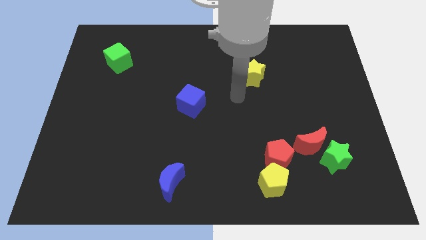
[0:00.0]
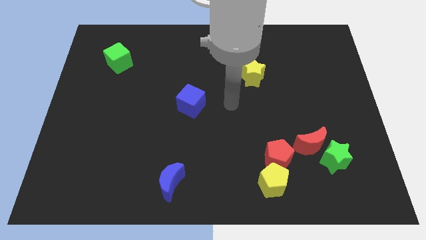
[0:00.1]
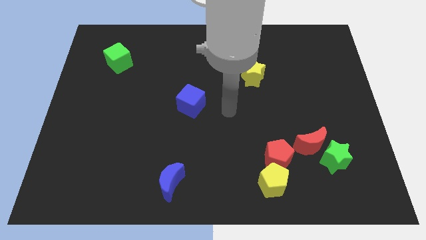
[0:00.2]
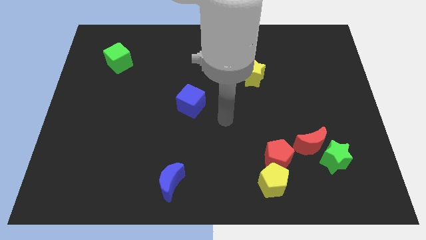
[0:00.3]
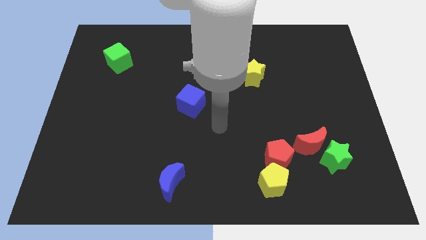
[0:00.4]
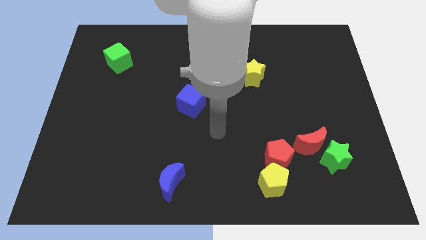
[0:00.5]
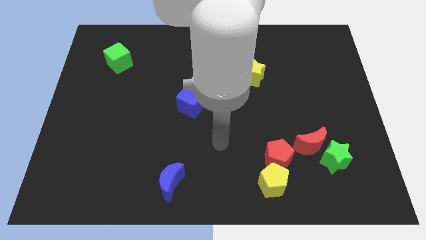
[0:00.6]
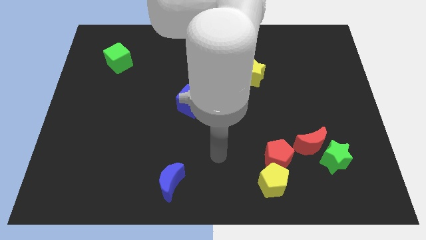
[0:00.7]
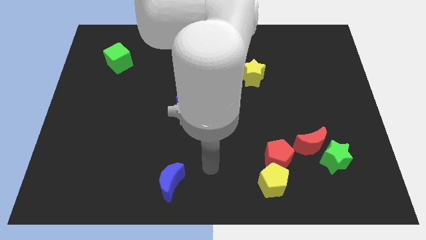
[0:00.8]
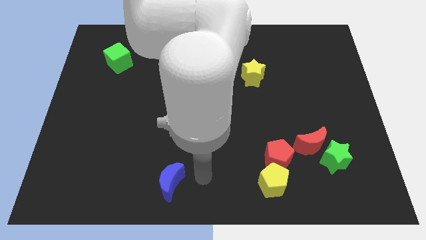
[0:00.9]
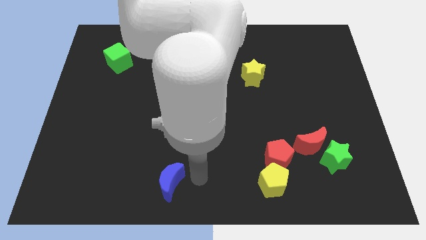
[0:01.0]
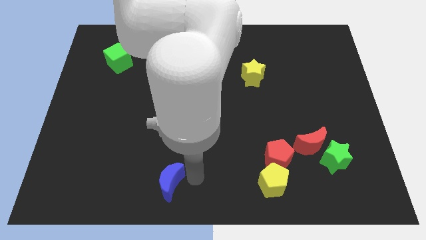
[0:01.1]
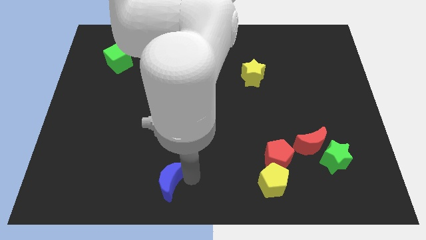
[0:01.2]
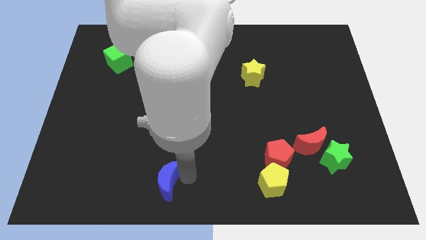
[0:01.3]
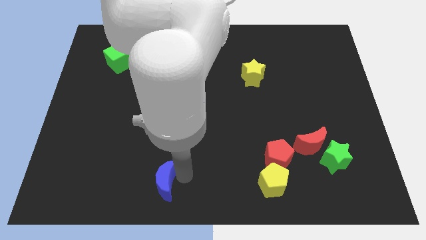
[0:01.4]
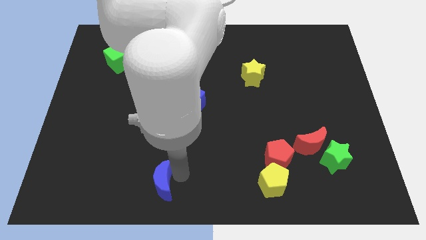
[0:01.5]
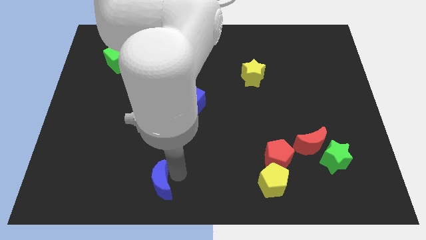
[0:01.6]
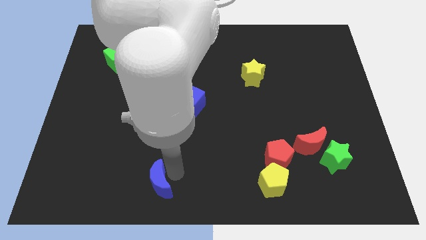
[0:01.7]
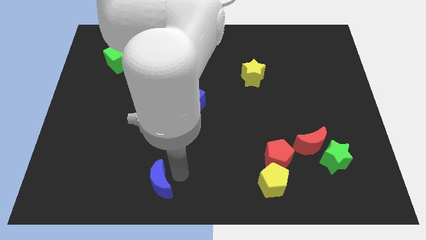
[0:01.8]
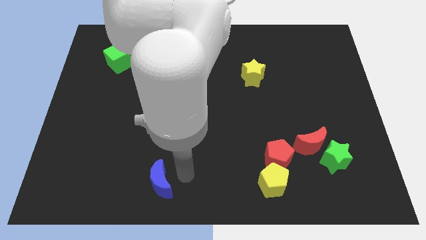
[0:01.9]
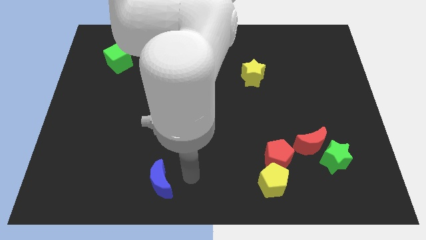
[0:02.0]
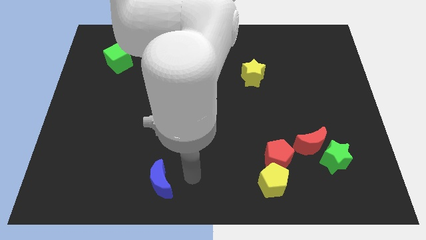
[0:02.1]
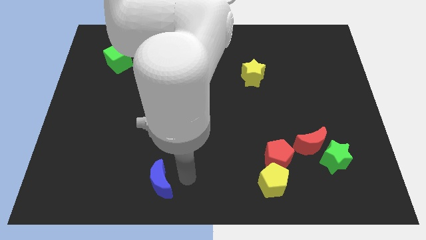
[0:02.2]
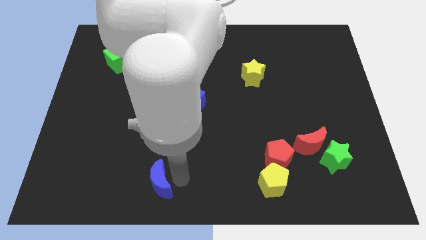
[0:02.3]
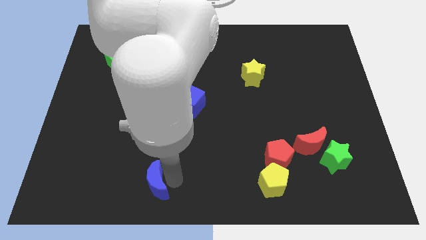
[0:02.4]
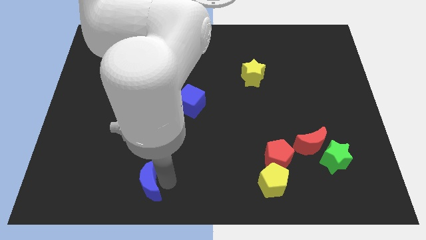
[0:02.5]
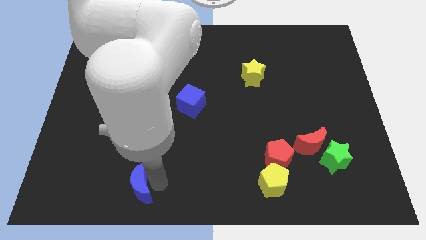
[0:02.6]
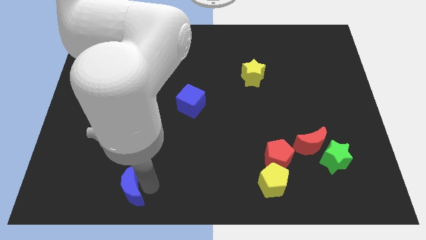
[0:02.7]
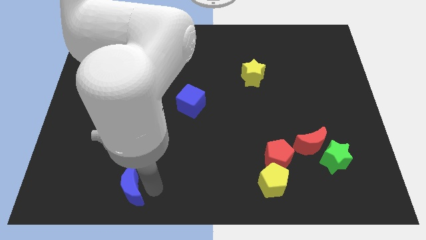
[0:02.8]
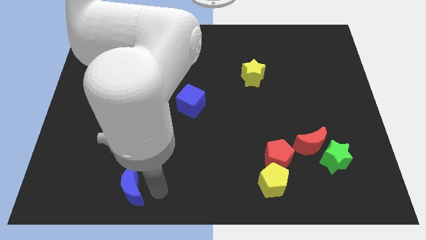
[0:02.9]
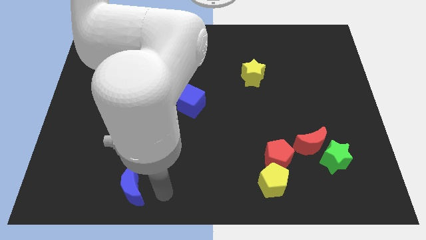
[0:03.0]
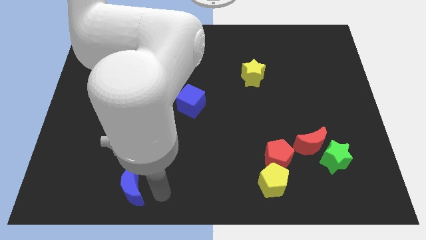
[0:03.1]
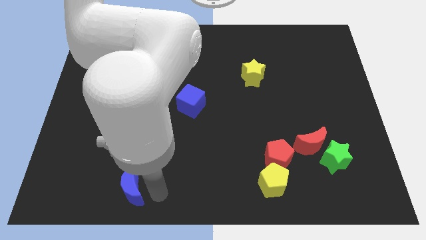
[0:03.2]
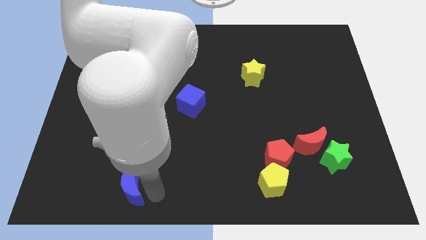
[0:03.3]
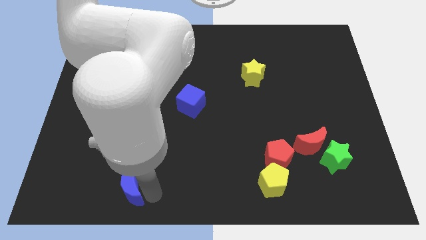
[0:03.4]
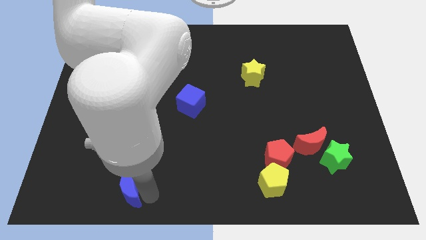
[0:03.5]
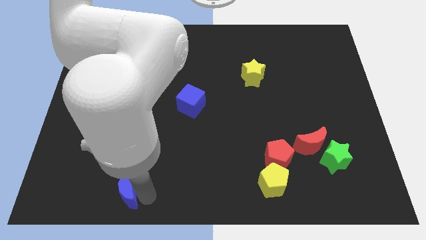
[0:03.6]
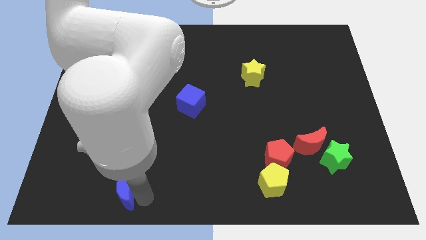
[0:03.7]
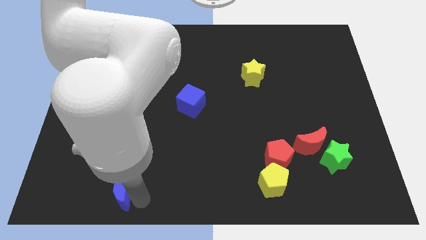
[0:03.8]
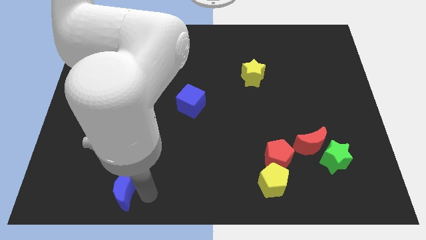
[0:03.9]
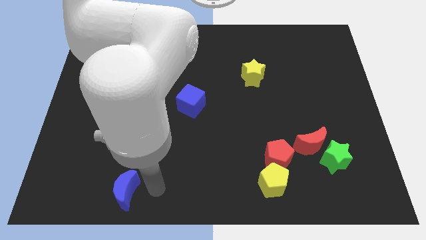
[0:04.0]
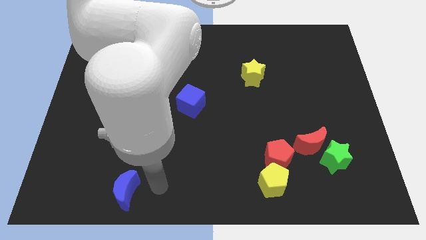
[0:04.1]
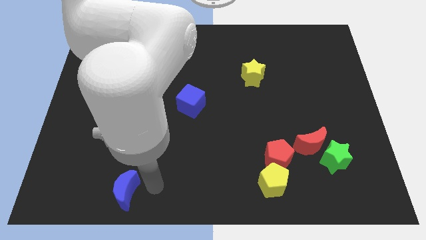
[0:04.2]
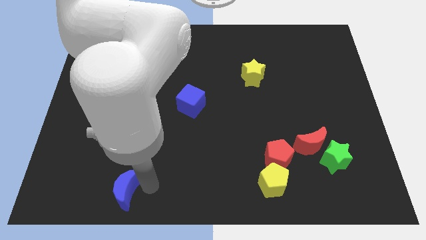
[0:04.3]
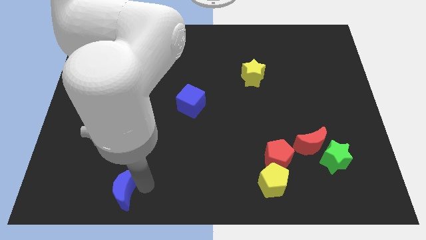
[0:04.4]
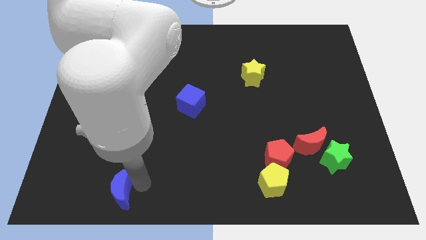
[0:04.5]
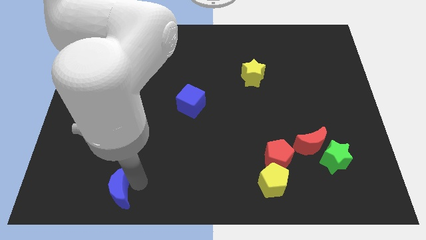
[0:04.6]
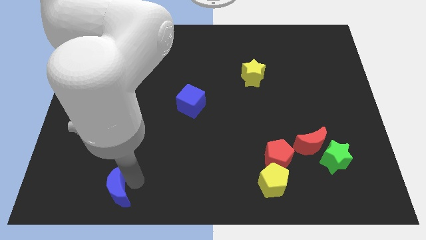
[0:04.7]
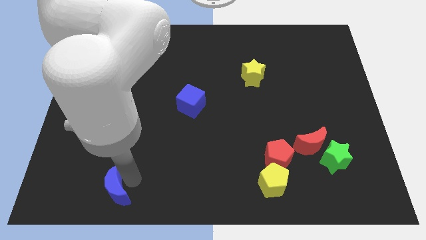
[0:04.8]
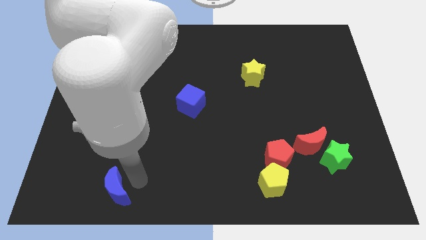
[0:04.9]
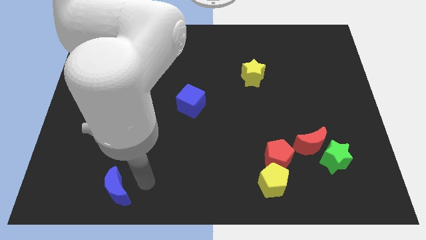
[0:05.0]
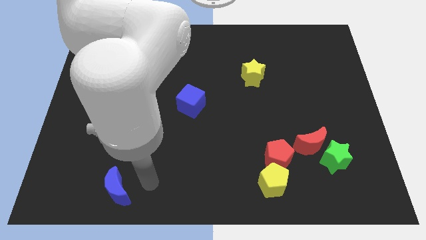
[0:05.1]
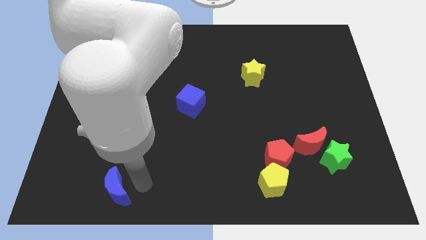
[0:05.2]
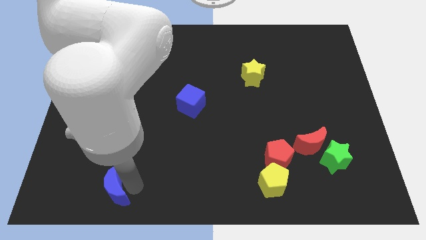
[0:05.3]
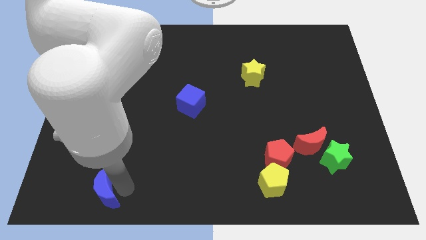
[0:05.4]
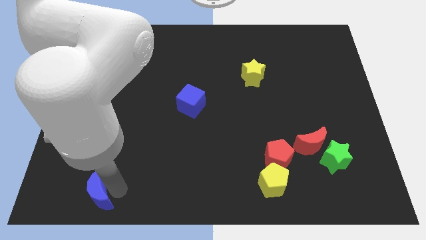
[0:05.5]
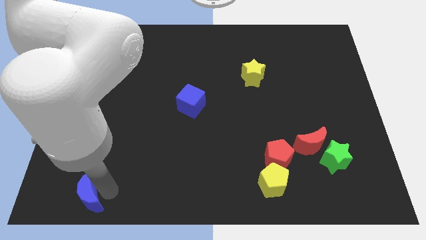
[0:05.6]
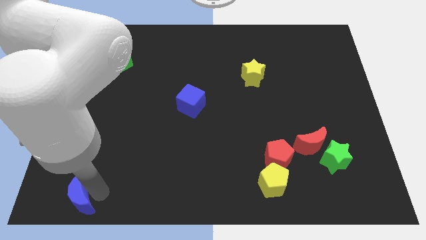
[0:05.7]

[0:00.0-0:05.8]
put the blue moon to the bottom left

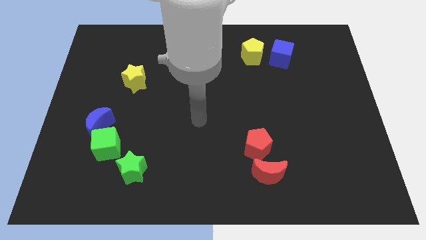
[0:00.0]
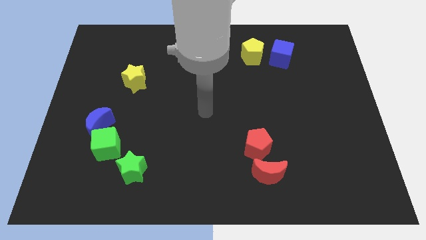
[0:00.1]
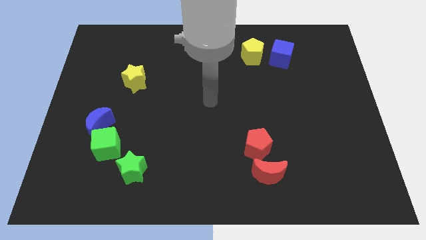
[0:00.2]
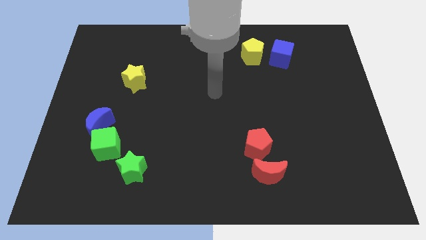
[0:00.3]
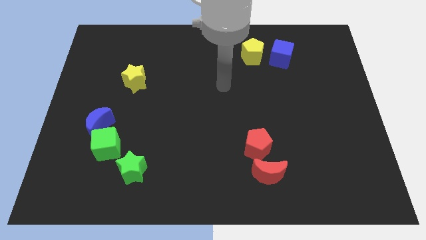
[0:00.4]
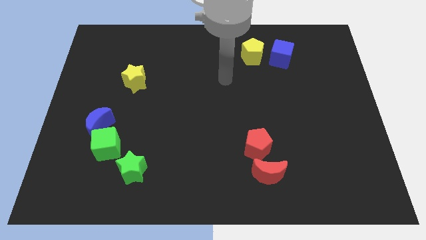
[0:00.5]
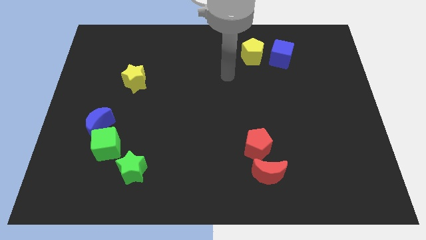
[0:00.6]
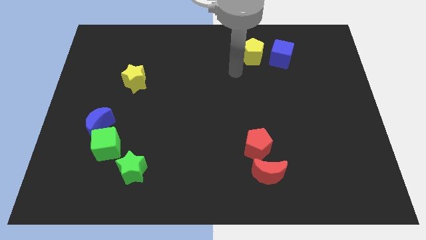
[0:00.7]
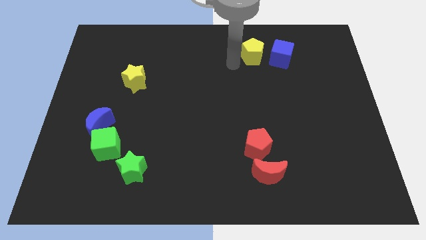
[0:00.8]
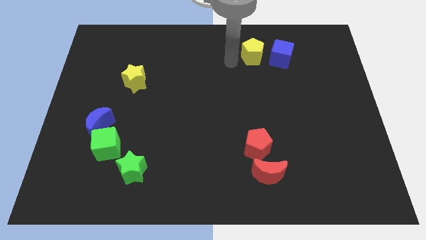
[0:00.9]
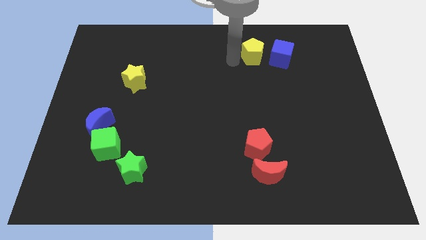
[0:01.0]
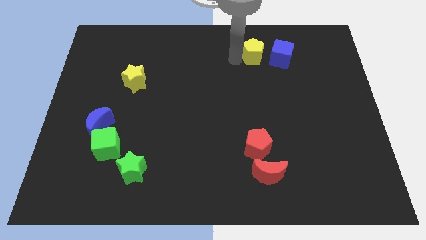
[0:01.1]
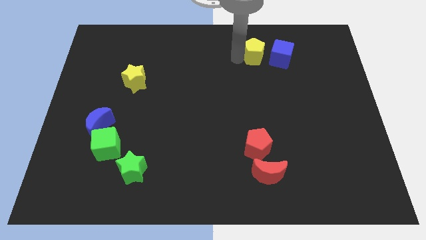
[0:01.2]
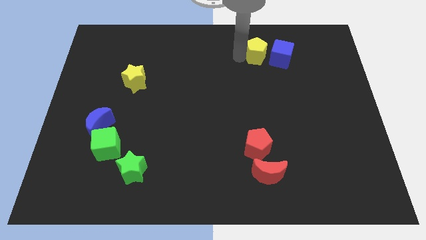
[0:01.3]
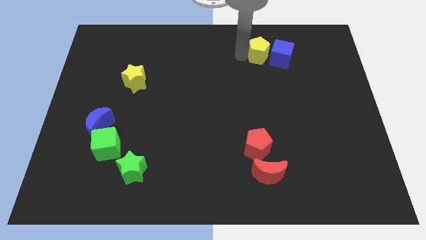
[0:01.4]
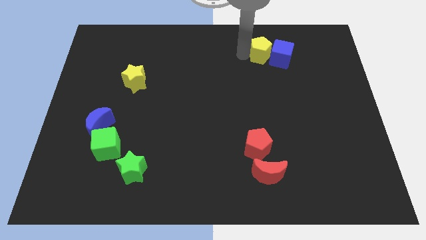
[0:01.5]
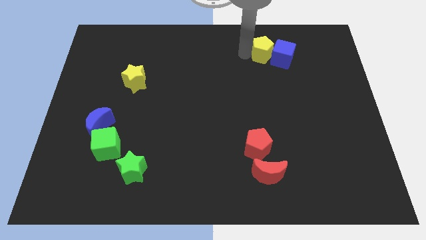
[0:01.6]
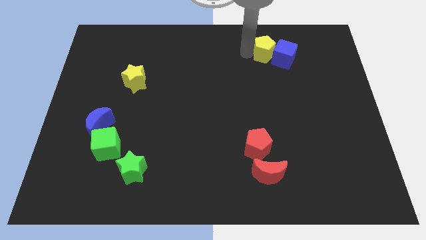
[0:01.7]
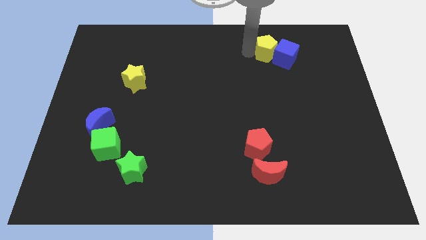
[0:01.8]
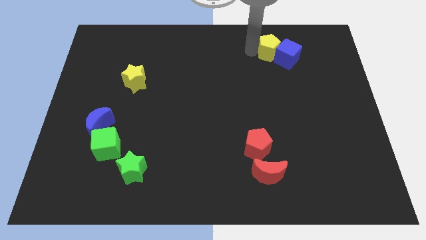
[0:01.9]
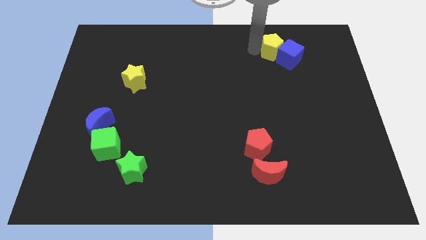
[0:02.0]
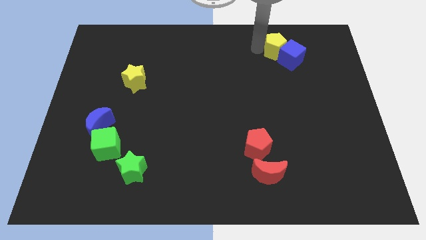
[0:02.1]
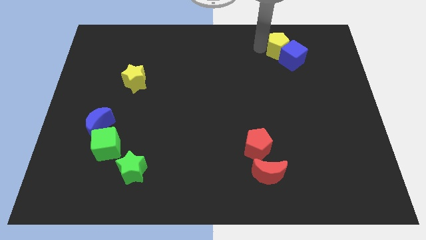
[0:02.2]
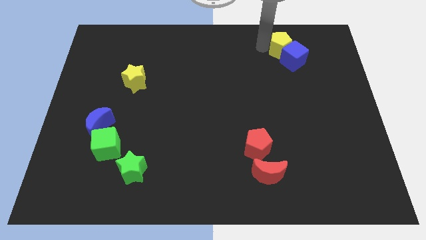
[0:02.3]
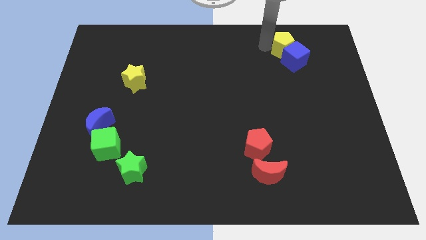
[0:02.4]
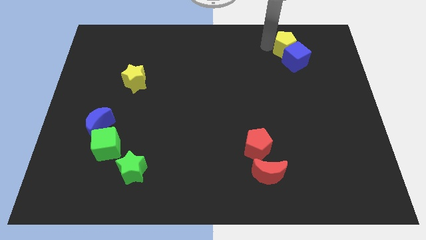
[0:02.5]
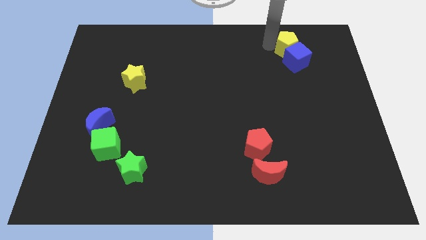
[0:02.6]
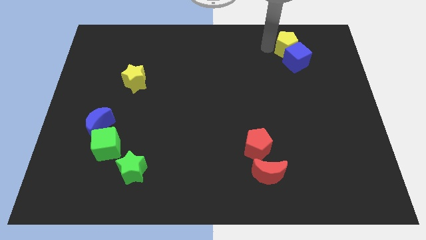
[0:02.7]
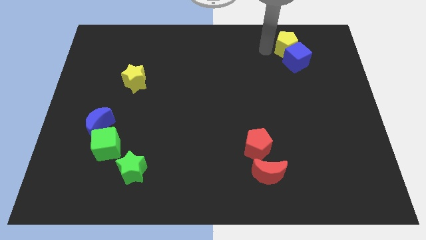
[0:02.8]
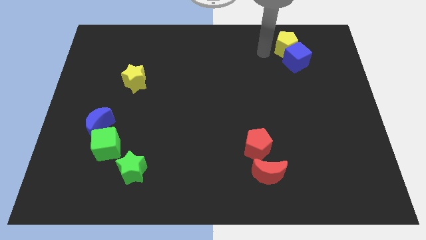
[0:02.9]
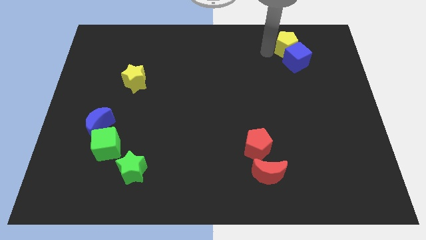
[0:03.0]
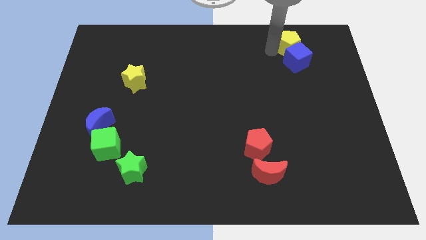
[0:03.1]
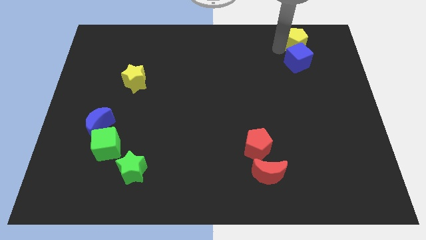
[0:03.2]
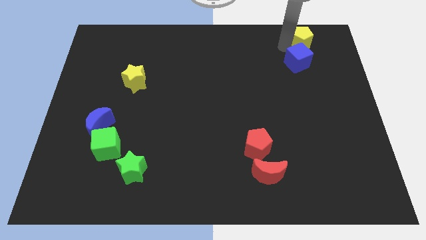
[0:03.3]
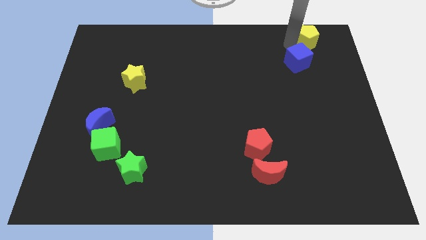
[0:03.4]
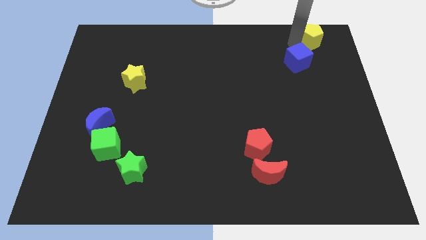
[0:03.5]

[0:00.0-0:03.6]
move the yellow pentagon to the top right of the board
